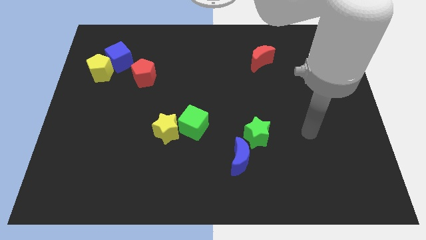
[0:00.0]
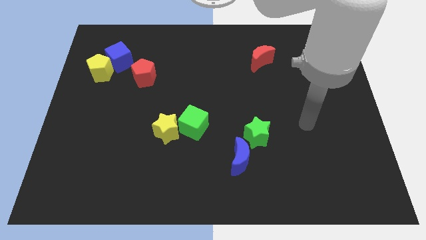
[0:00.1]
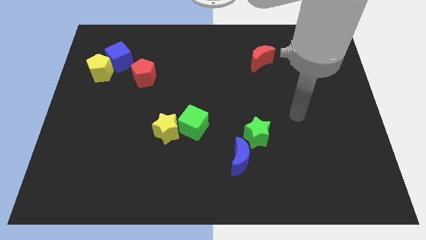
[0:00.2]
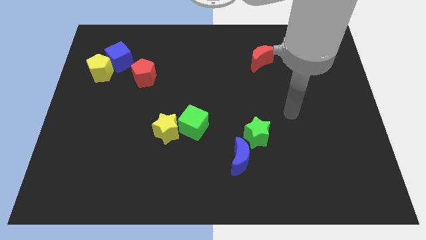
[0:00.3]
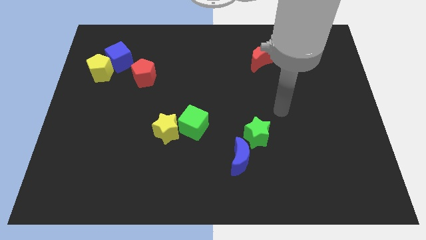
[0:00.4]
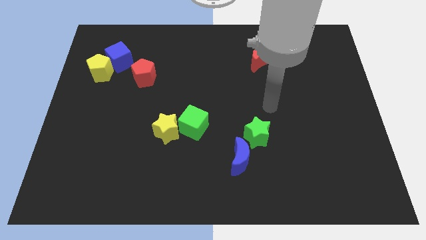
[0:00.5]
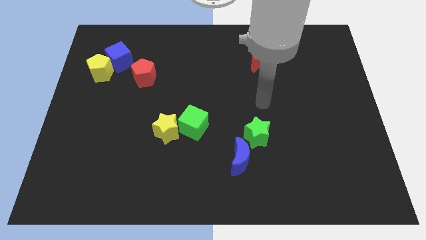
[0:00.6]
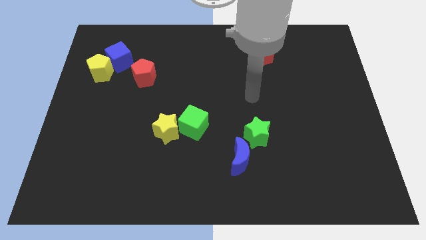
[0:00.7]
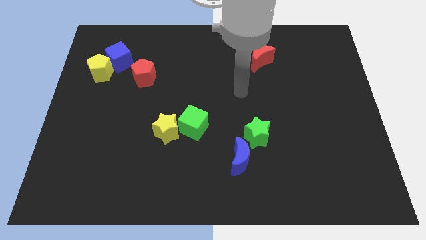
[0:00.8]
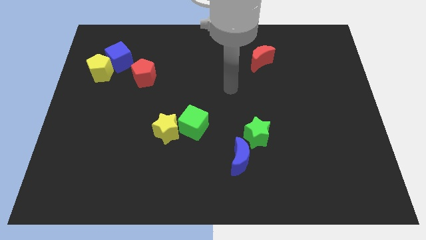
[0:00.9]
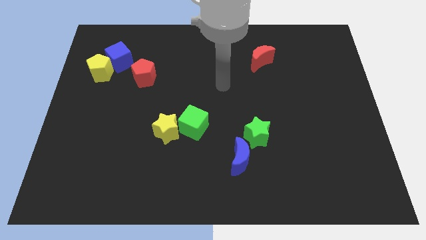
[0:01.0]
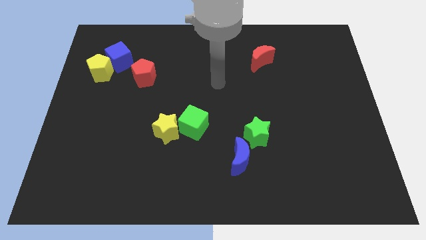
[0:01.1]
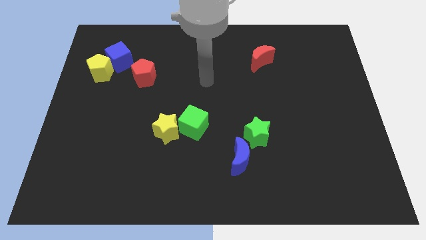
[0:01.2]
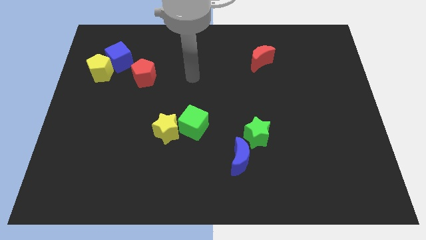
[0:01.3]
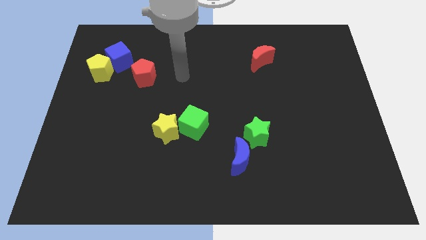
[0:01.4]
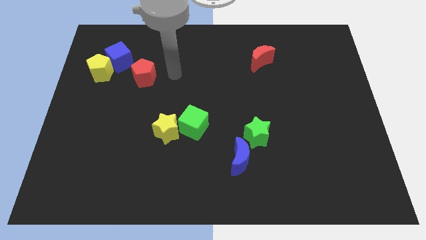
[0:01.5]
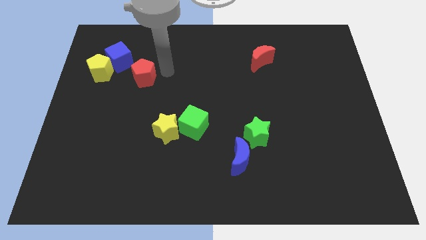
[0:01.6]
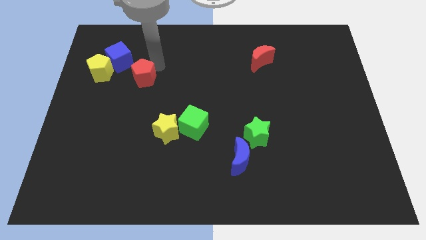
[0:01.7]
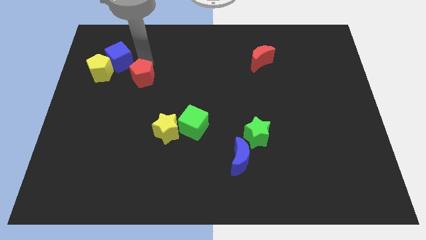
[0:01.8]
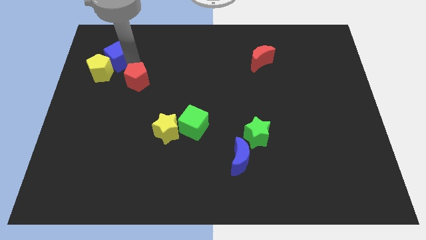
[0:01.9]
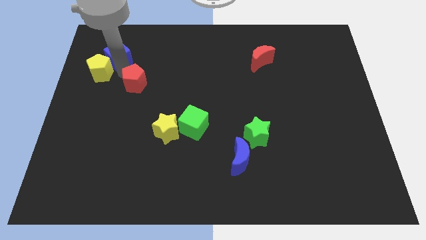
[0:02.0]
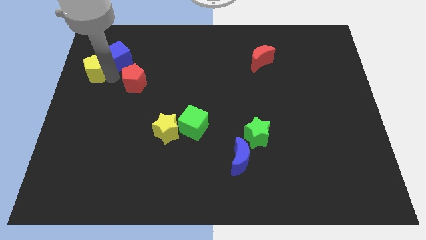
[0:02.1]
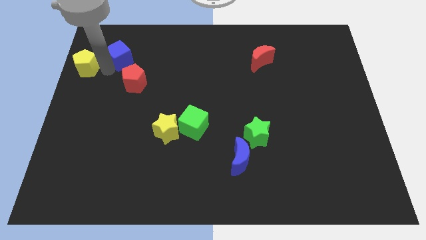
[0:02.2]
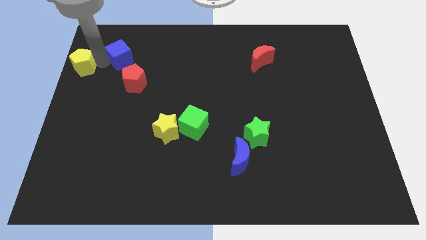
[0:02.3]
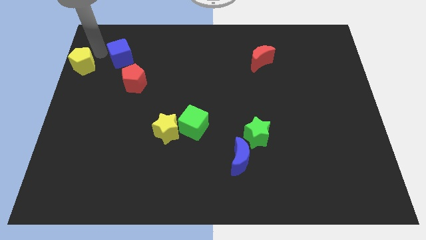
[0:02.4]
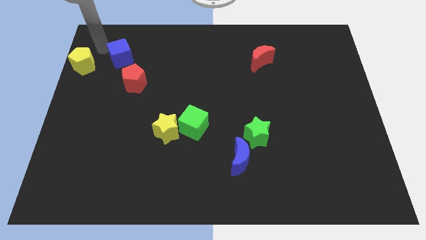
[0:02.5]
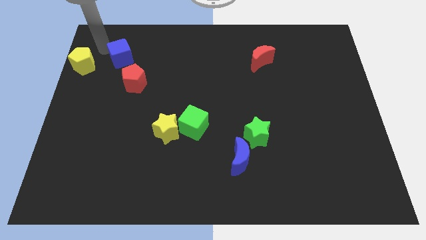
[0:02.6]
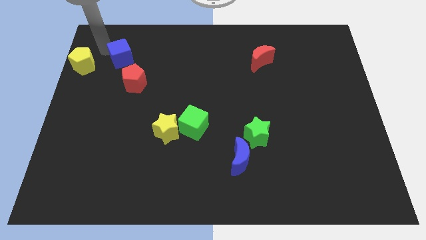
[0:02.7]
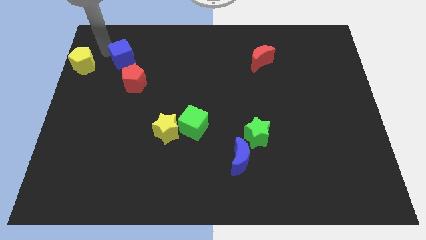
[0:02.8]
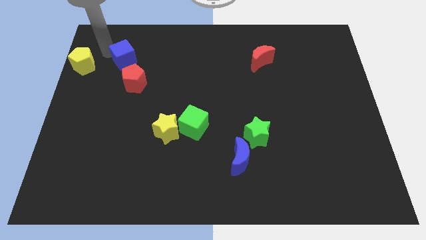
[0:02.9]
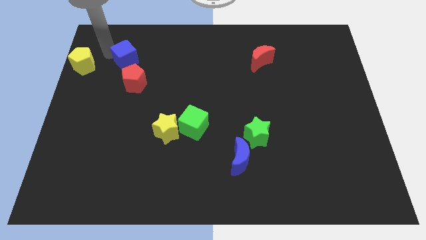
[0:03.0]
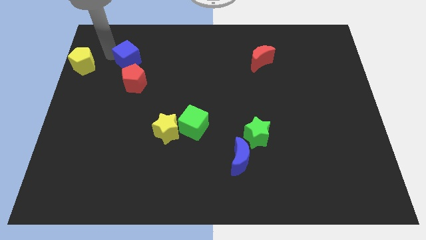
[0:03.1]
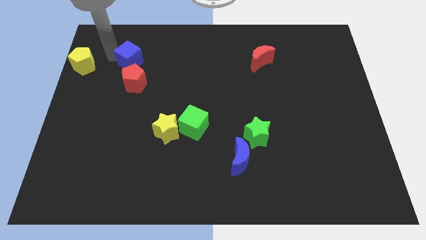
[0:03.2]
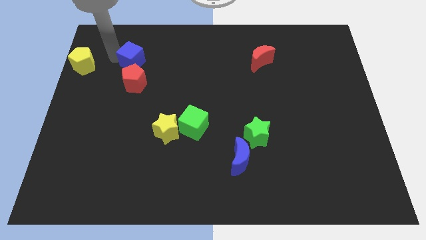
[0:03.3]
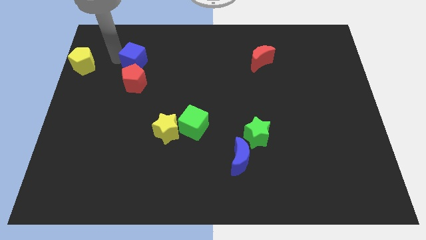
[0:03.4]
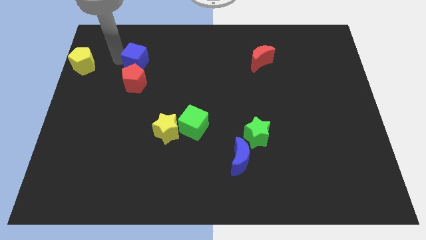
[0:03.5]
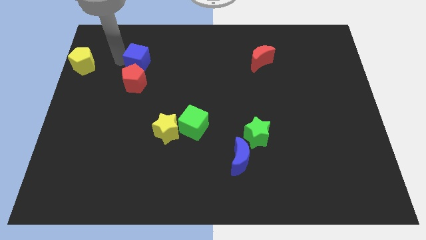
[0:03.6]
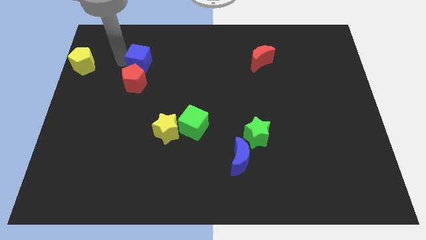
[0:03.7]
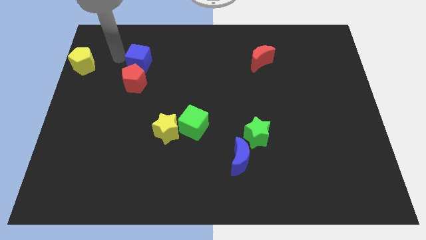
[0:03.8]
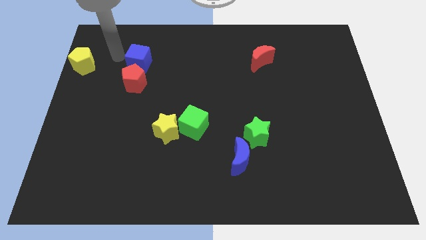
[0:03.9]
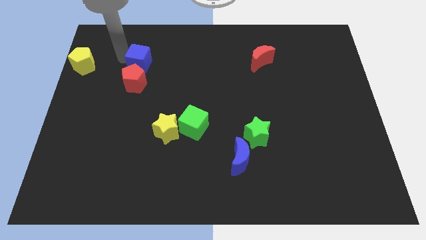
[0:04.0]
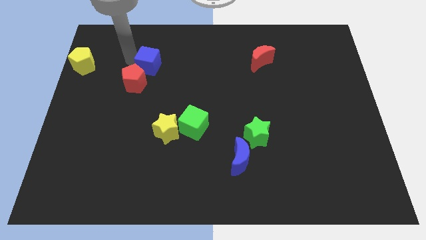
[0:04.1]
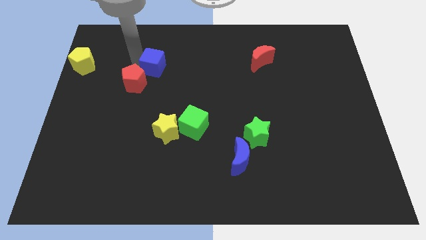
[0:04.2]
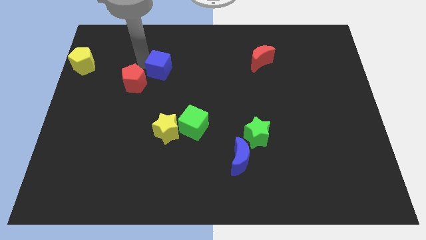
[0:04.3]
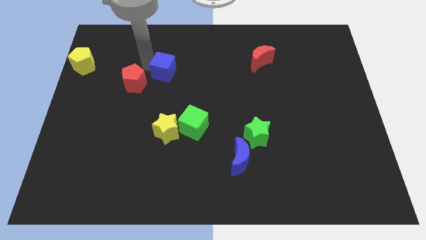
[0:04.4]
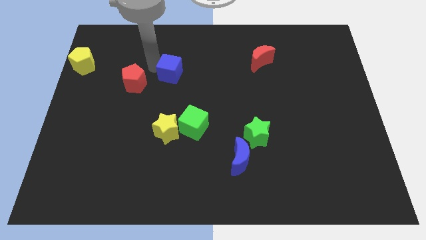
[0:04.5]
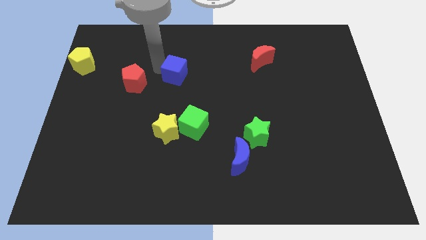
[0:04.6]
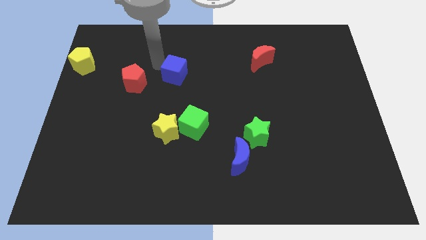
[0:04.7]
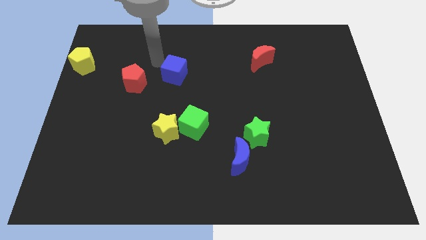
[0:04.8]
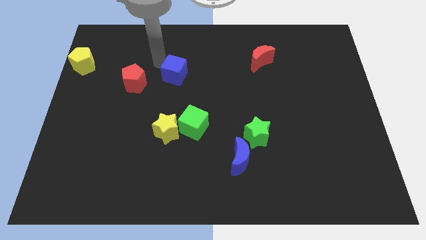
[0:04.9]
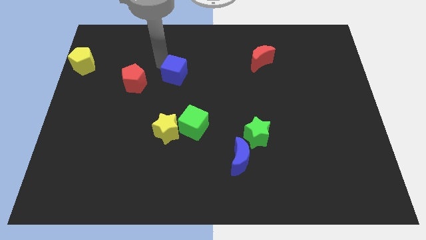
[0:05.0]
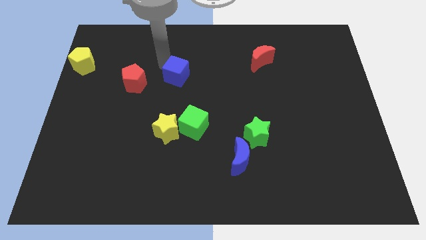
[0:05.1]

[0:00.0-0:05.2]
slide the blue cube to the center

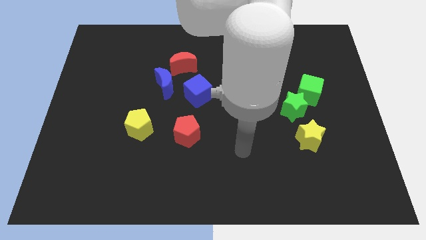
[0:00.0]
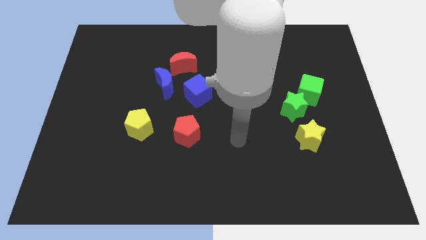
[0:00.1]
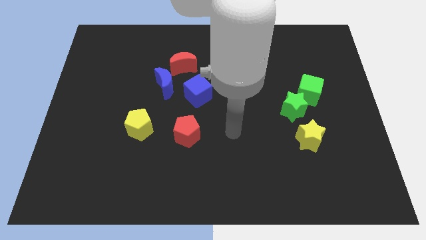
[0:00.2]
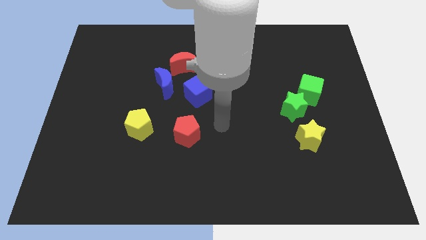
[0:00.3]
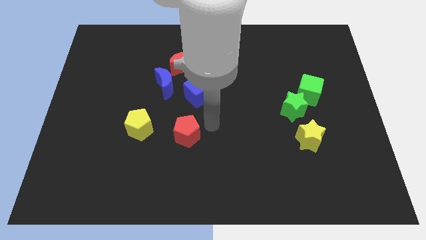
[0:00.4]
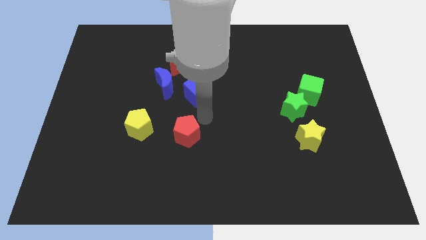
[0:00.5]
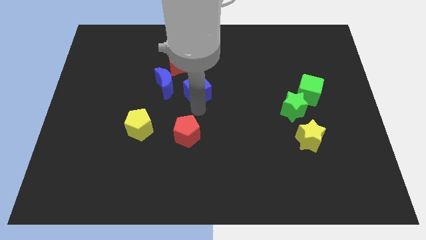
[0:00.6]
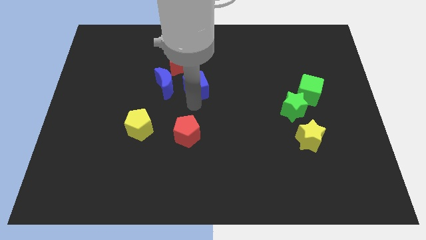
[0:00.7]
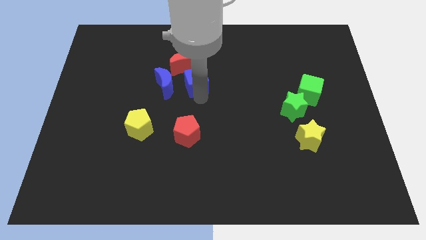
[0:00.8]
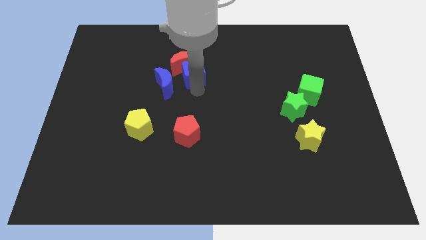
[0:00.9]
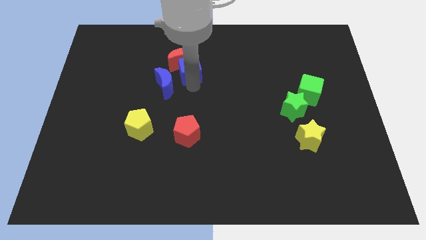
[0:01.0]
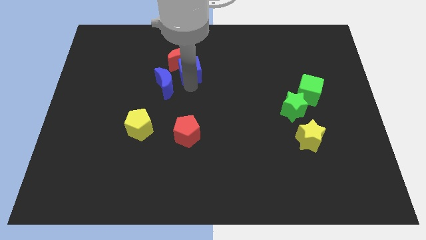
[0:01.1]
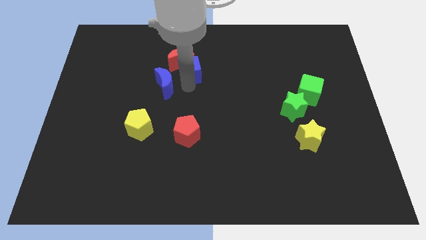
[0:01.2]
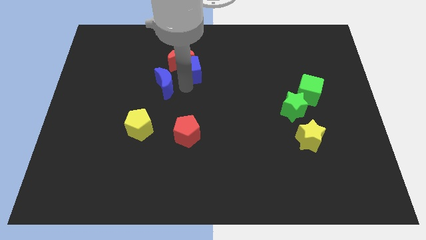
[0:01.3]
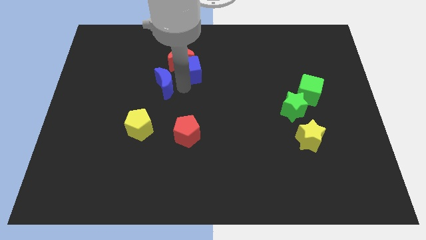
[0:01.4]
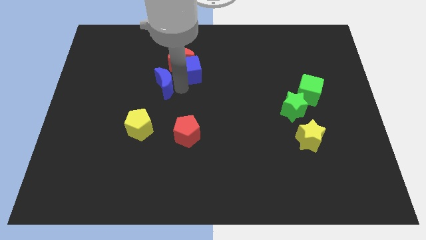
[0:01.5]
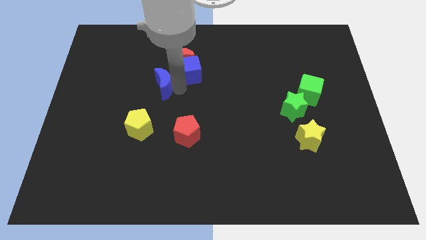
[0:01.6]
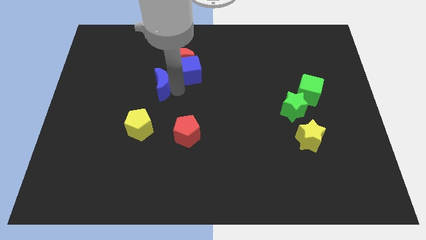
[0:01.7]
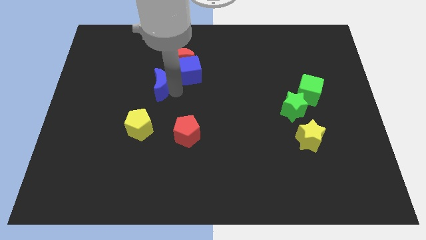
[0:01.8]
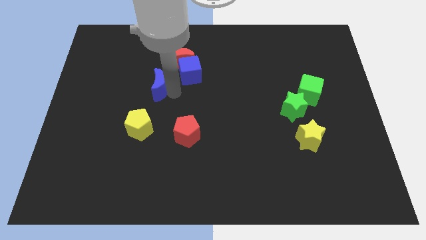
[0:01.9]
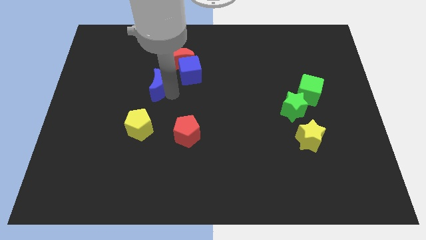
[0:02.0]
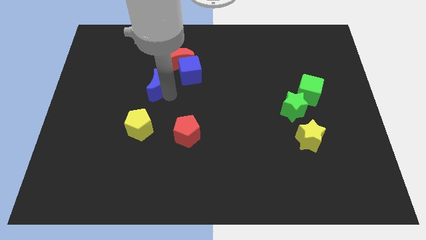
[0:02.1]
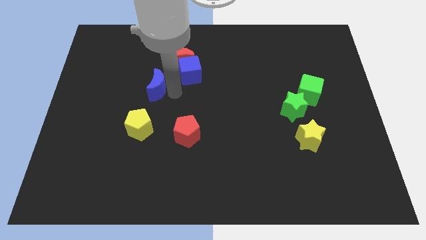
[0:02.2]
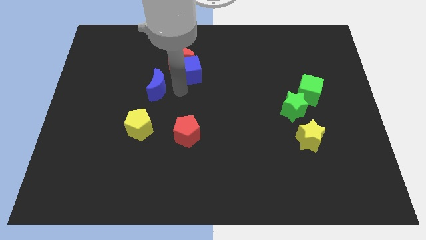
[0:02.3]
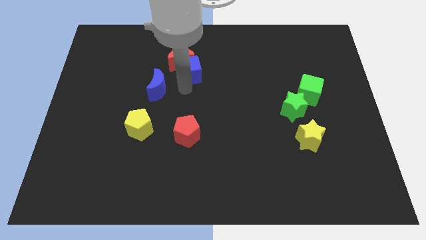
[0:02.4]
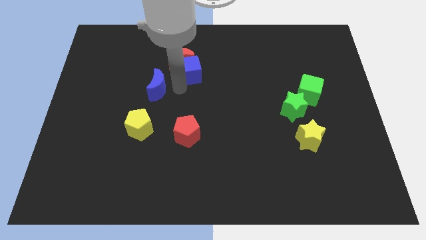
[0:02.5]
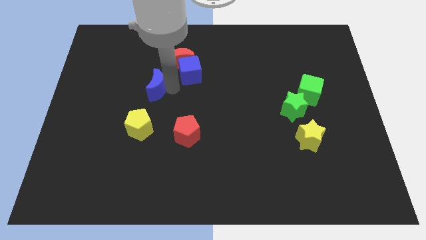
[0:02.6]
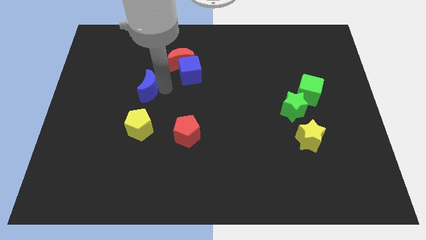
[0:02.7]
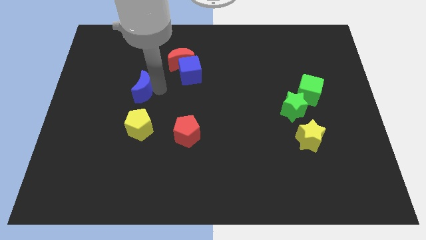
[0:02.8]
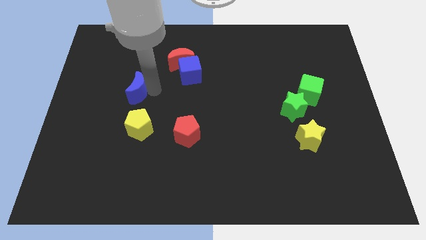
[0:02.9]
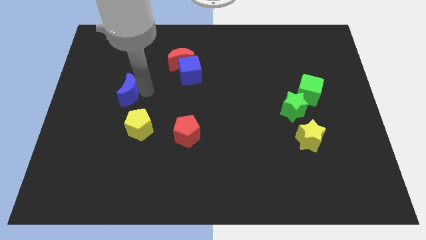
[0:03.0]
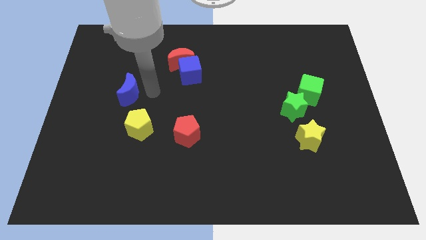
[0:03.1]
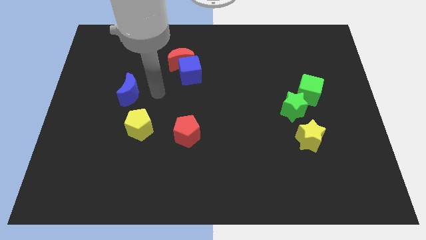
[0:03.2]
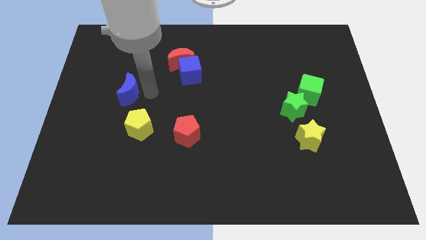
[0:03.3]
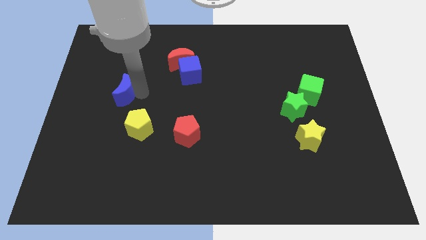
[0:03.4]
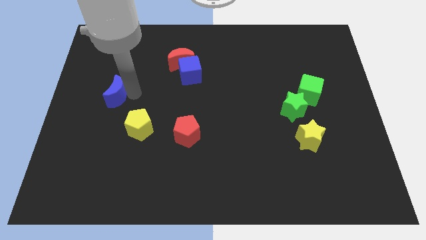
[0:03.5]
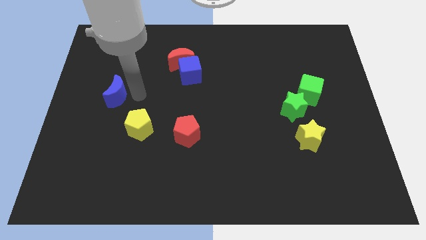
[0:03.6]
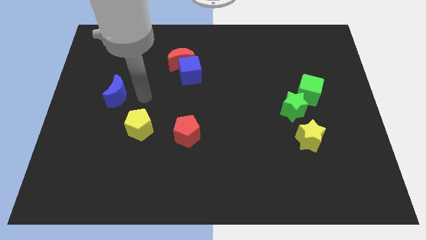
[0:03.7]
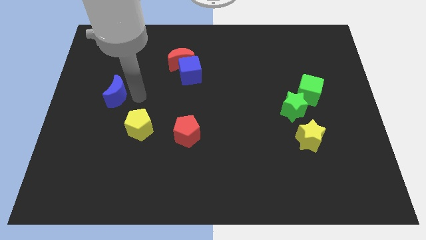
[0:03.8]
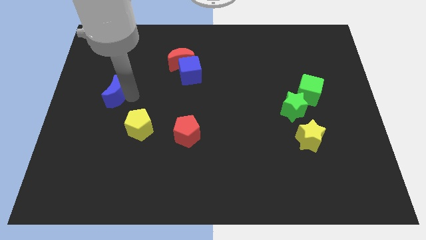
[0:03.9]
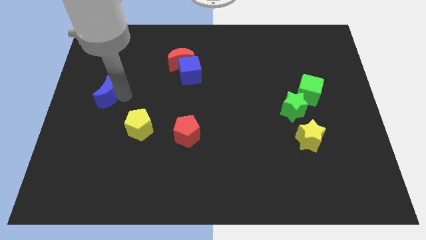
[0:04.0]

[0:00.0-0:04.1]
slide the blue moon to the left side of the board
